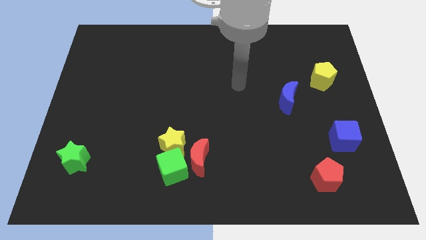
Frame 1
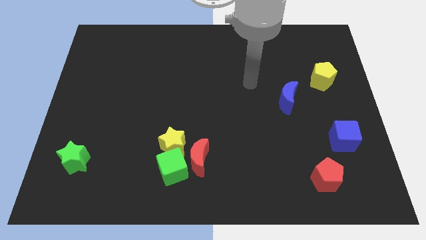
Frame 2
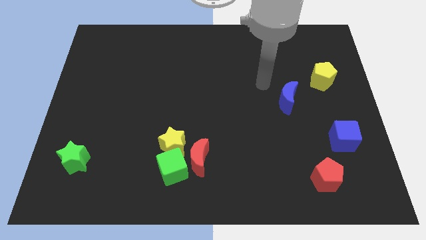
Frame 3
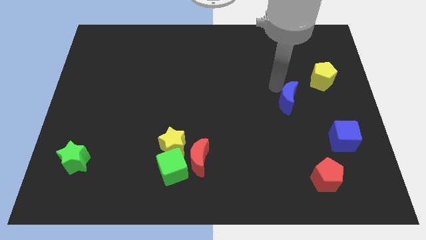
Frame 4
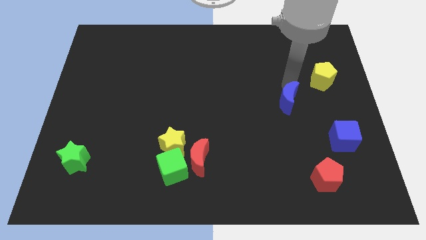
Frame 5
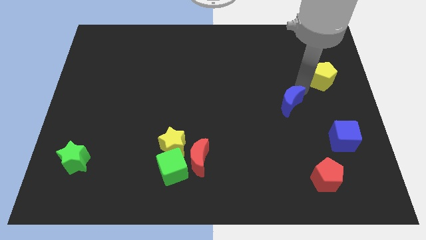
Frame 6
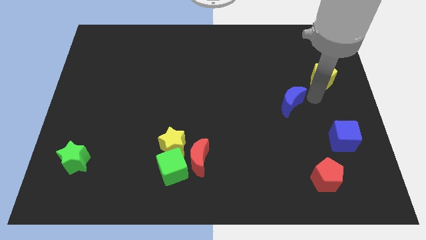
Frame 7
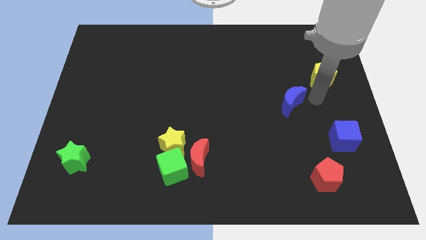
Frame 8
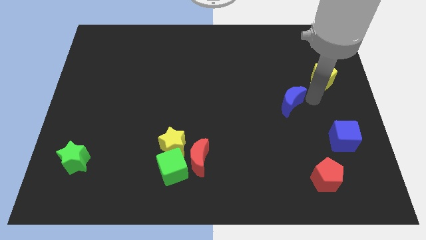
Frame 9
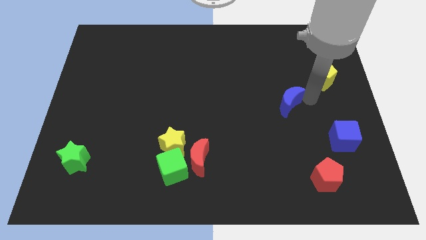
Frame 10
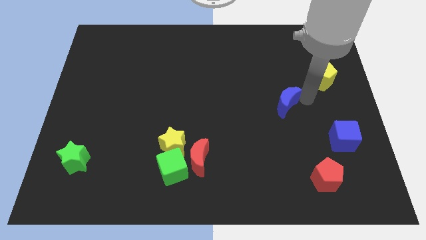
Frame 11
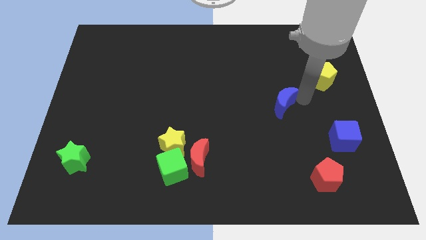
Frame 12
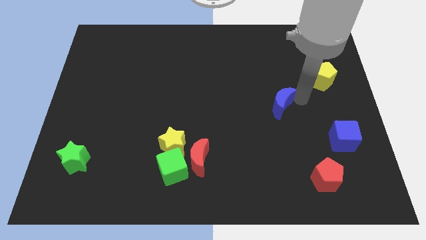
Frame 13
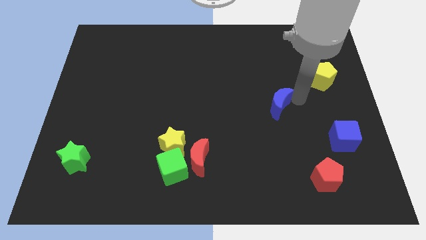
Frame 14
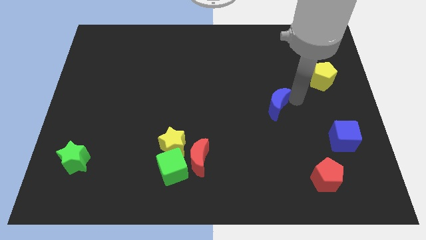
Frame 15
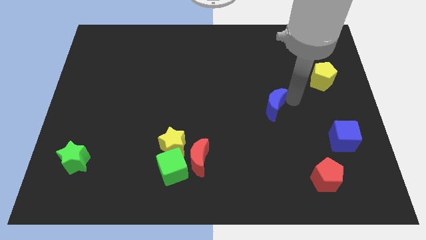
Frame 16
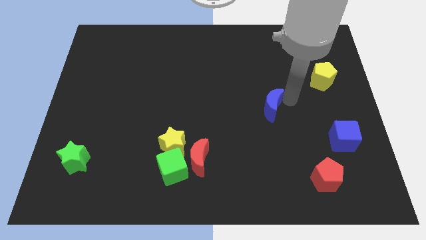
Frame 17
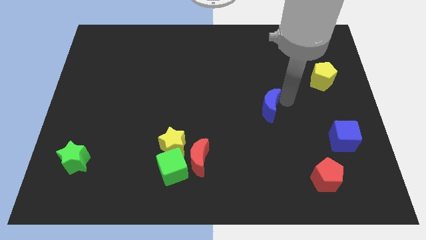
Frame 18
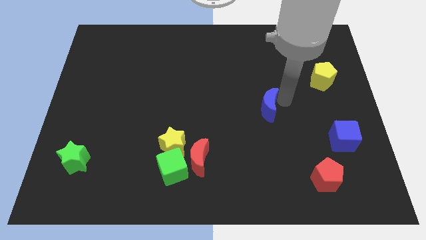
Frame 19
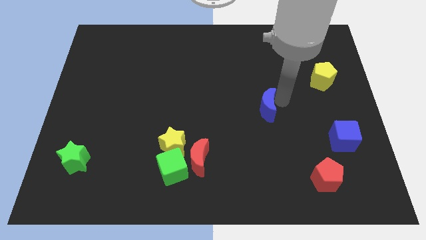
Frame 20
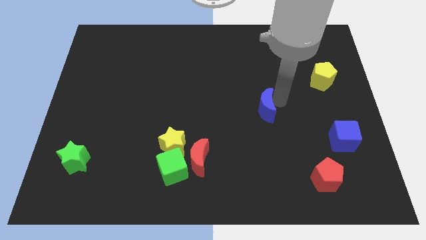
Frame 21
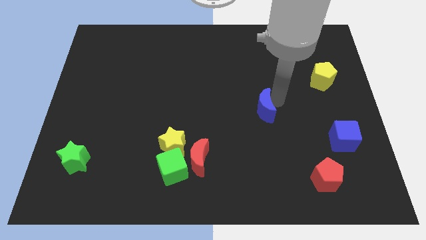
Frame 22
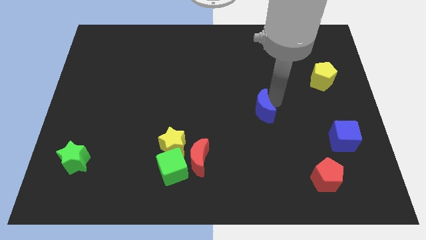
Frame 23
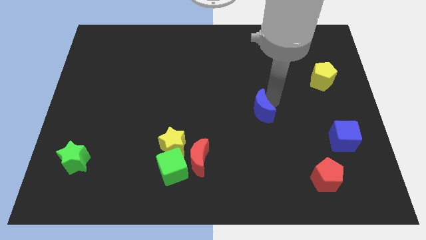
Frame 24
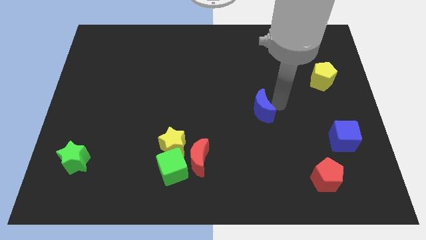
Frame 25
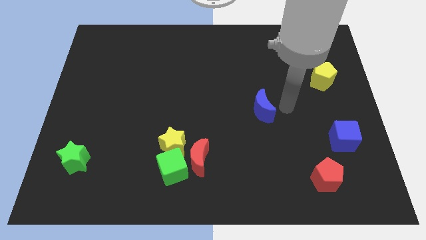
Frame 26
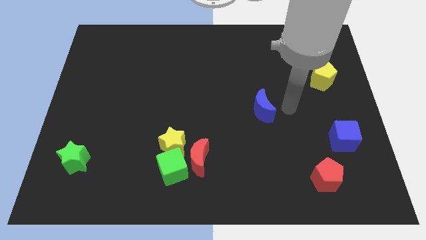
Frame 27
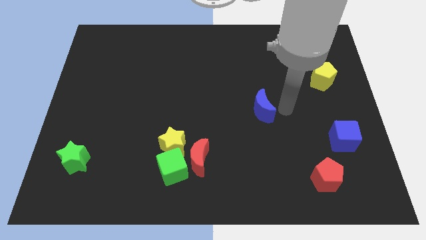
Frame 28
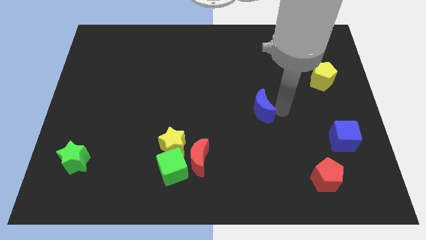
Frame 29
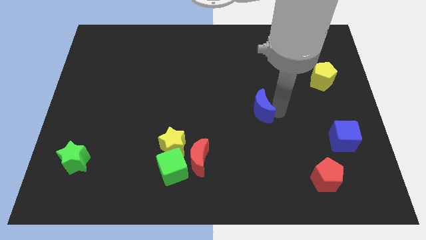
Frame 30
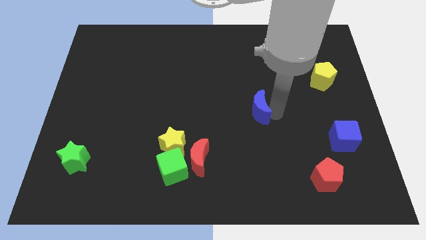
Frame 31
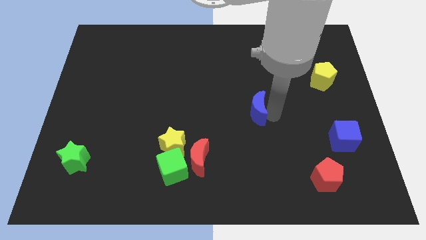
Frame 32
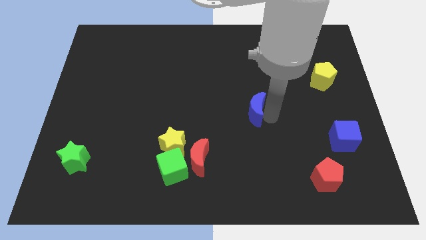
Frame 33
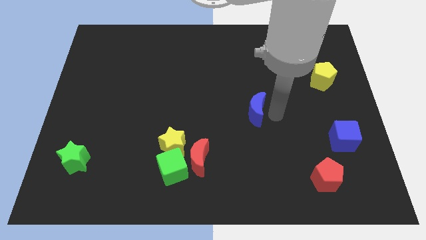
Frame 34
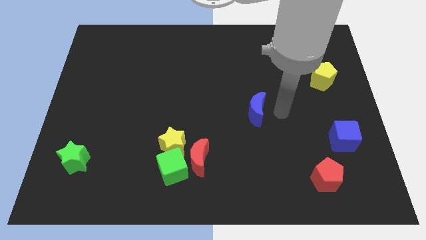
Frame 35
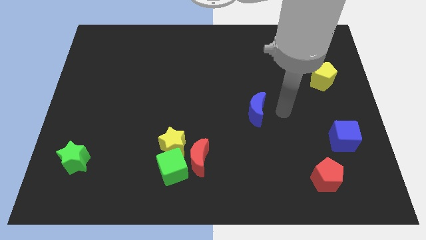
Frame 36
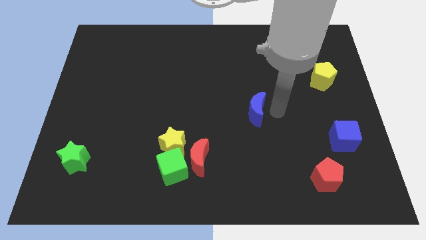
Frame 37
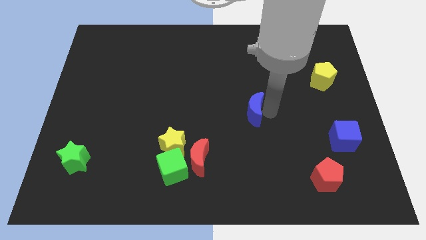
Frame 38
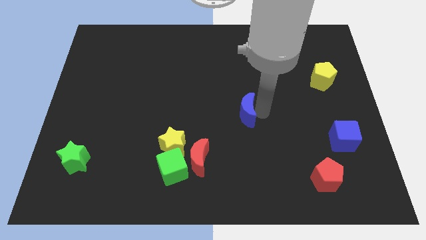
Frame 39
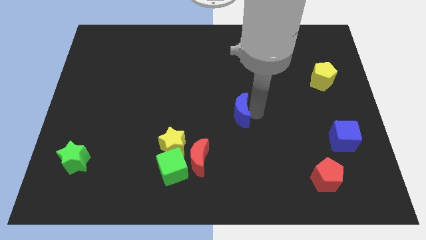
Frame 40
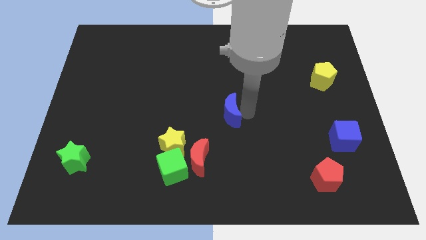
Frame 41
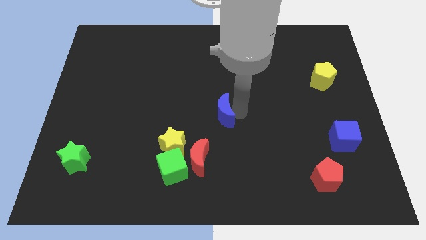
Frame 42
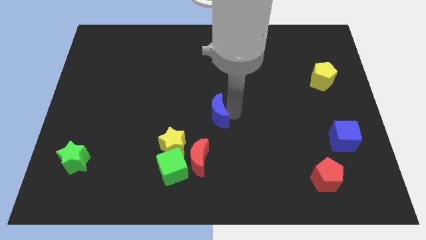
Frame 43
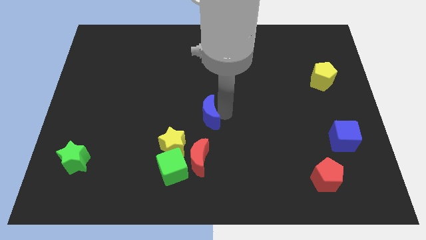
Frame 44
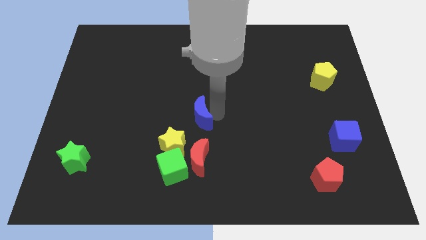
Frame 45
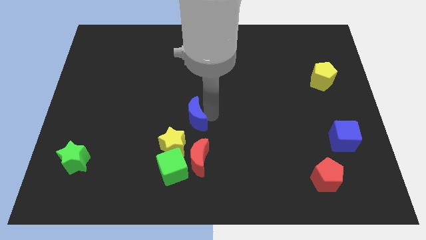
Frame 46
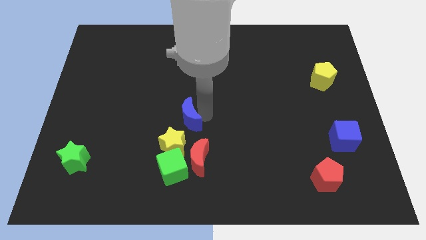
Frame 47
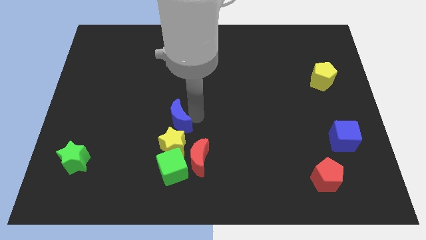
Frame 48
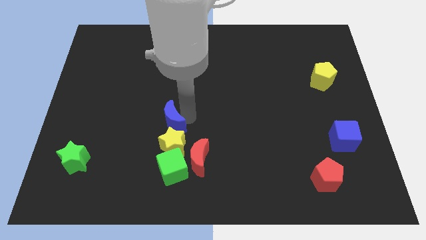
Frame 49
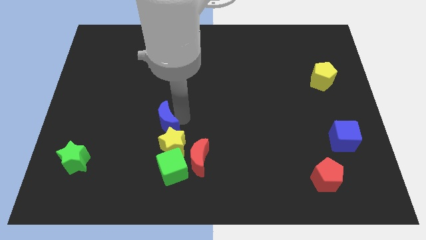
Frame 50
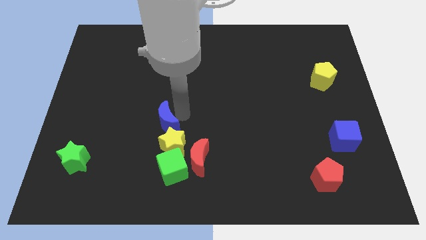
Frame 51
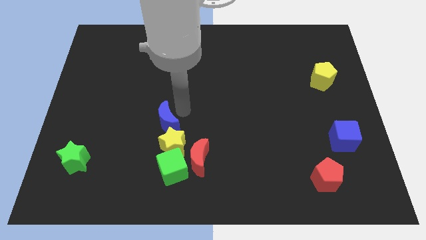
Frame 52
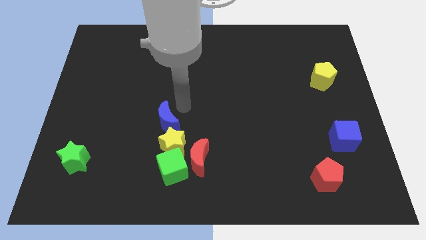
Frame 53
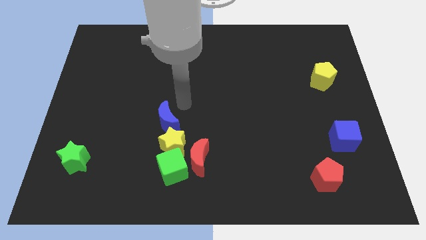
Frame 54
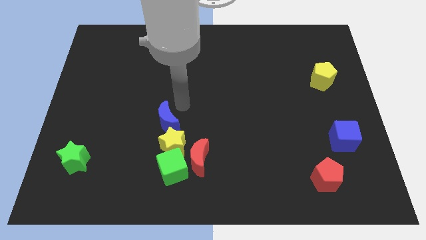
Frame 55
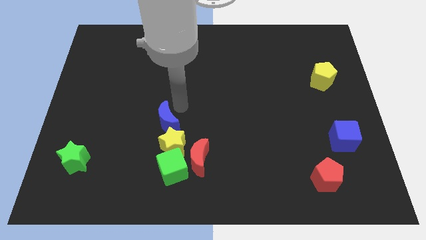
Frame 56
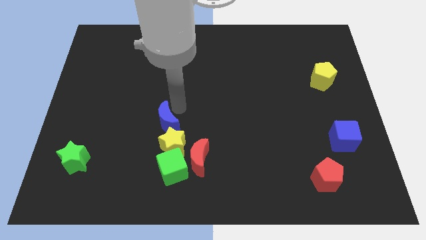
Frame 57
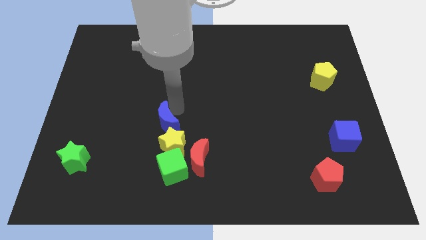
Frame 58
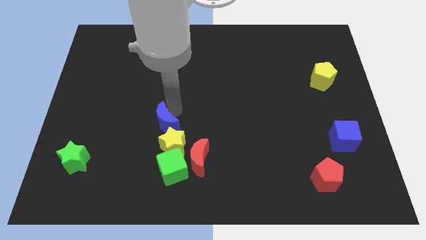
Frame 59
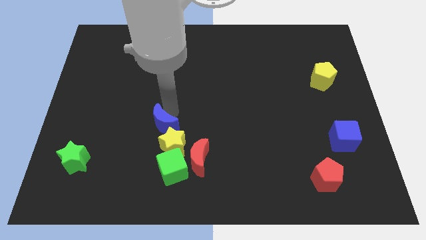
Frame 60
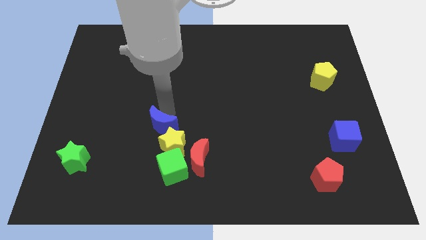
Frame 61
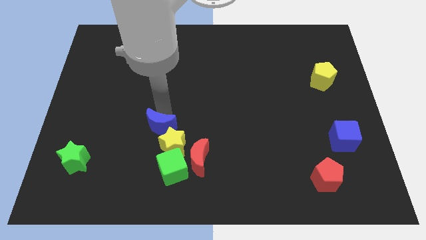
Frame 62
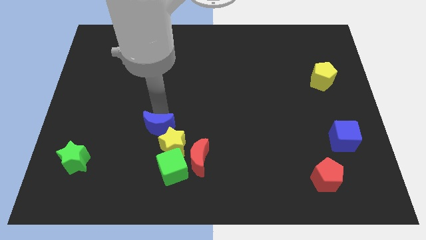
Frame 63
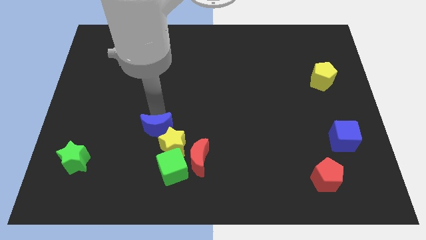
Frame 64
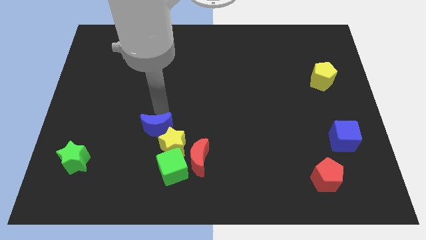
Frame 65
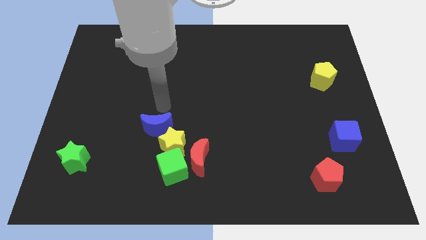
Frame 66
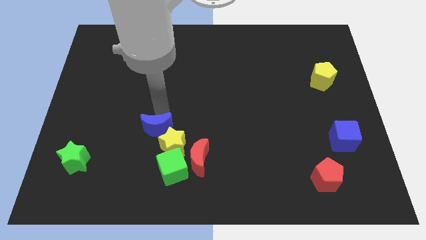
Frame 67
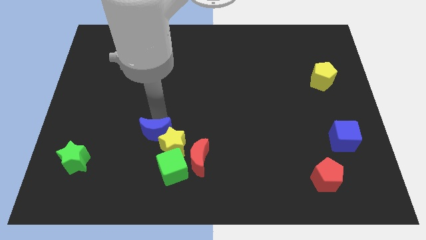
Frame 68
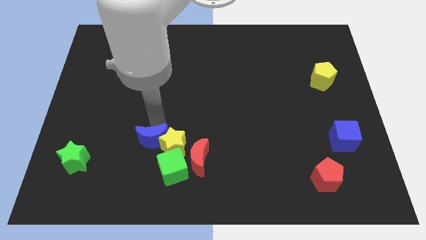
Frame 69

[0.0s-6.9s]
put the blue moon to the left side of the red moon

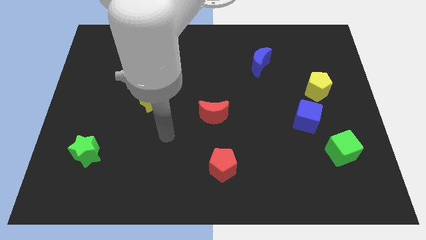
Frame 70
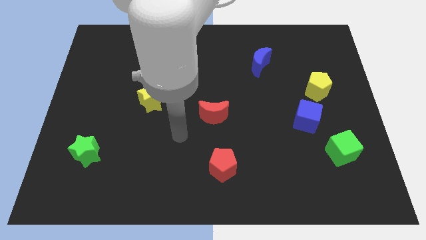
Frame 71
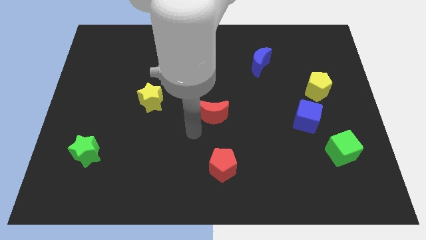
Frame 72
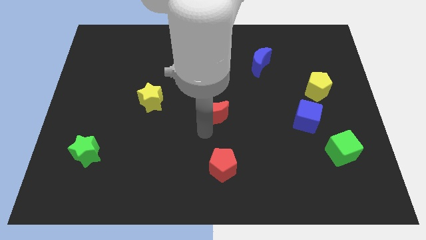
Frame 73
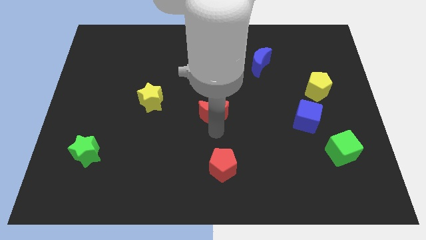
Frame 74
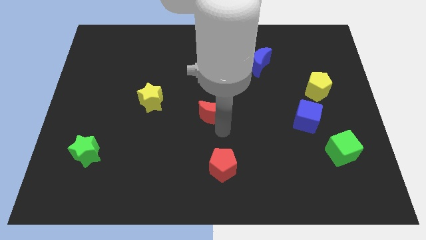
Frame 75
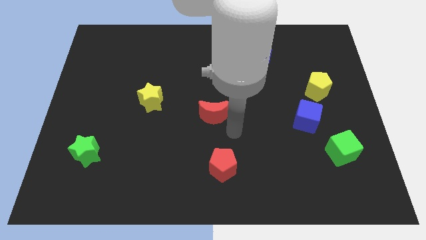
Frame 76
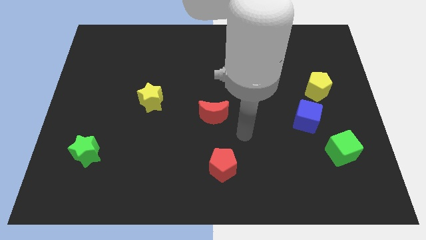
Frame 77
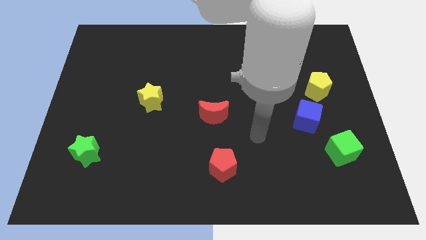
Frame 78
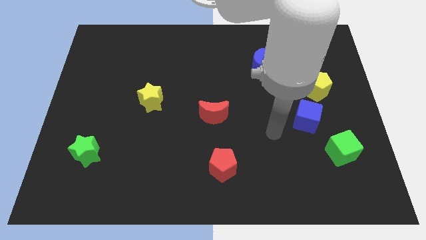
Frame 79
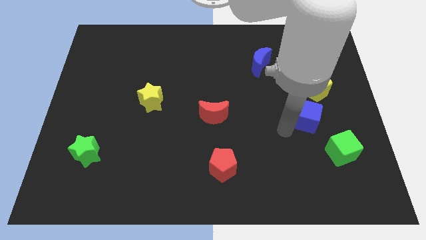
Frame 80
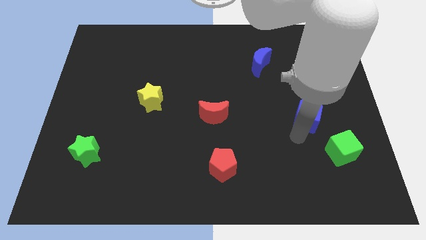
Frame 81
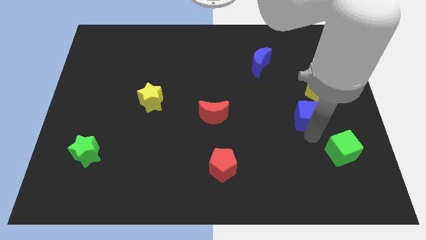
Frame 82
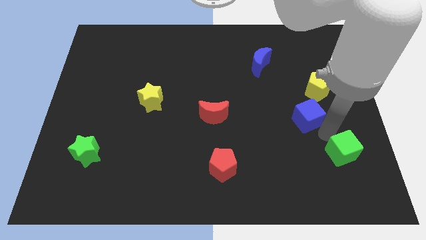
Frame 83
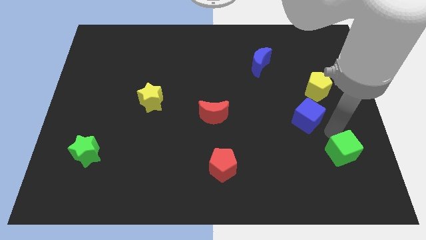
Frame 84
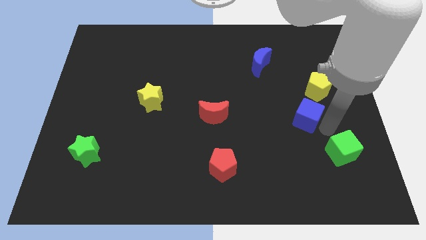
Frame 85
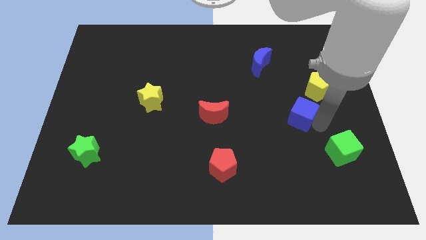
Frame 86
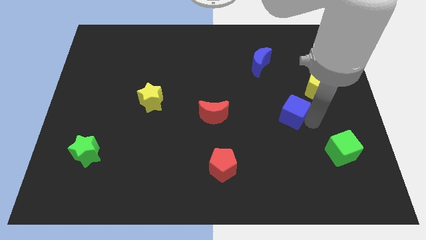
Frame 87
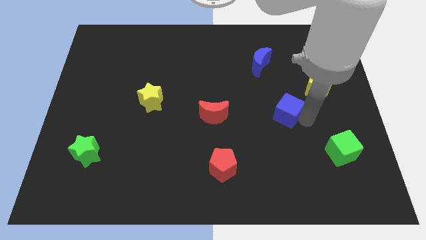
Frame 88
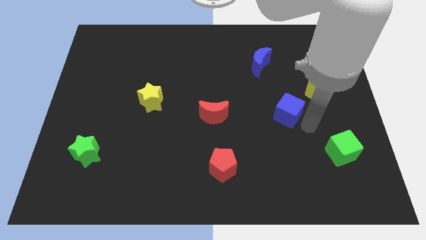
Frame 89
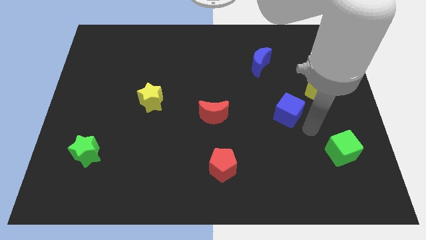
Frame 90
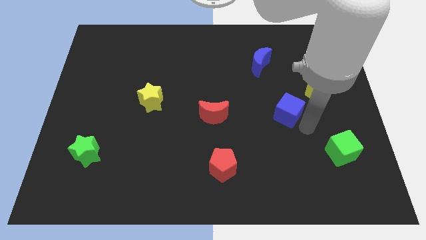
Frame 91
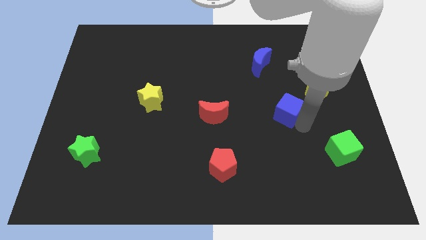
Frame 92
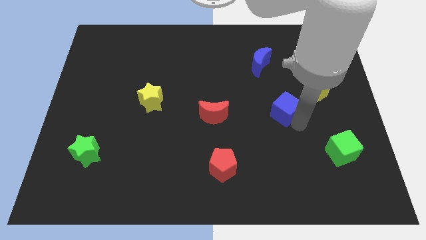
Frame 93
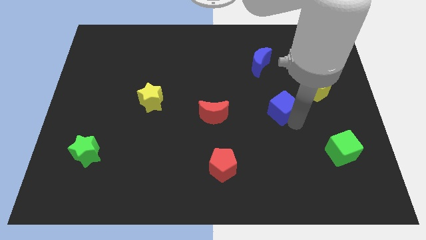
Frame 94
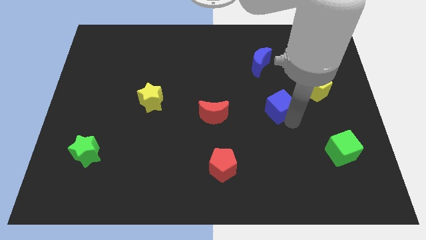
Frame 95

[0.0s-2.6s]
move the blue cube below the blue moon
